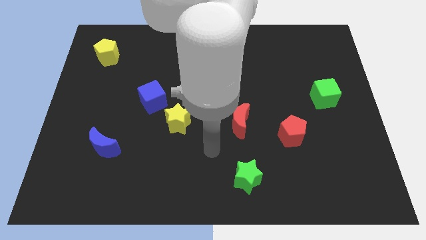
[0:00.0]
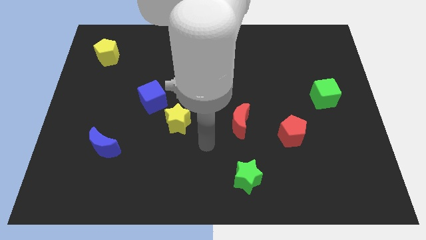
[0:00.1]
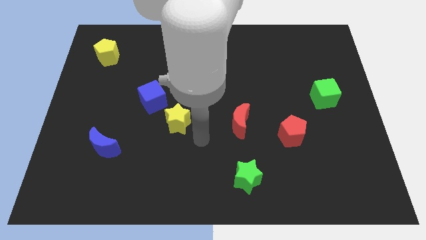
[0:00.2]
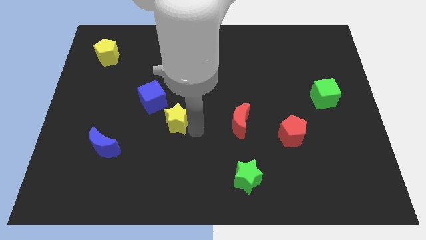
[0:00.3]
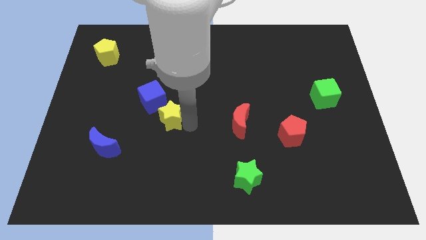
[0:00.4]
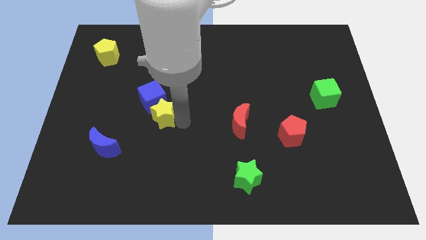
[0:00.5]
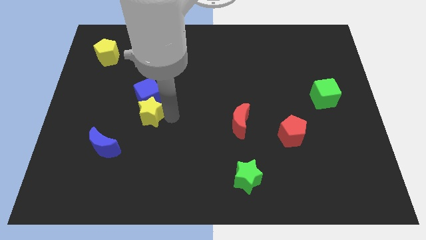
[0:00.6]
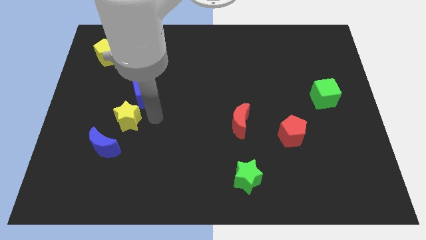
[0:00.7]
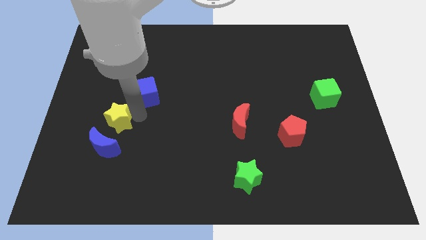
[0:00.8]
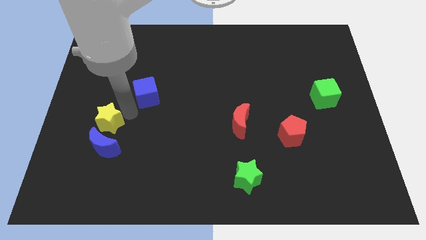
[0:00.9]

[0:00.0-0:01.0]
separate the blue cube from the yellow star

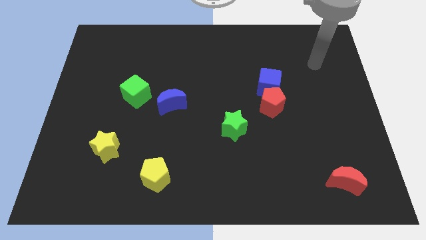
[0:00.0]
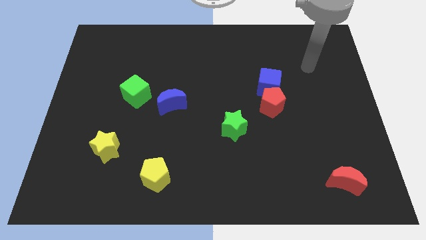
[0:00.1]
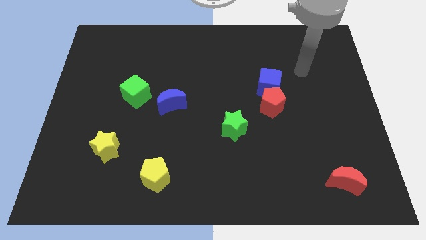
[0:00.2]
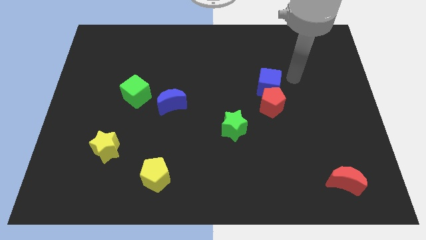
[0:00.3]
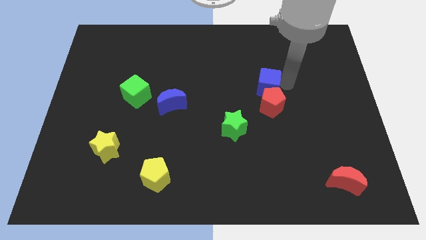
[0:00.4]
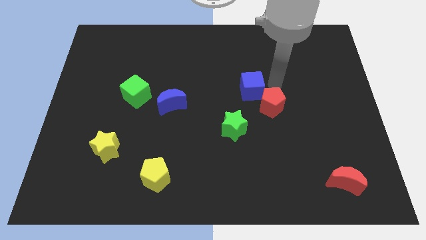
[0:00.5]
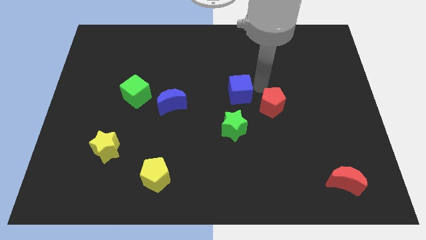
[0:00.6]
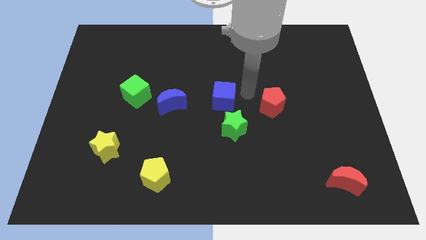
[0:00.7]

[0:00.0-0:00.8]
move the red pentagon away from the blue cube

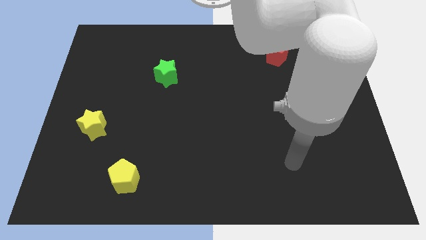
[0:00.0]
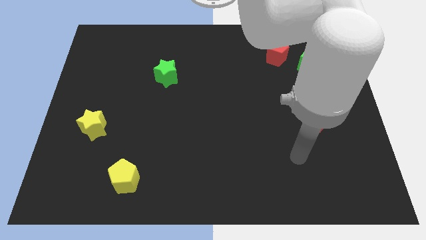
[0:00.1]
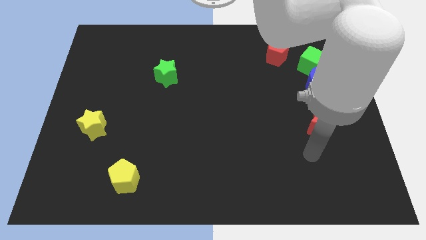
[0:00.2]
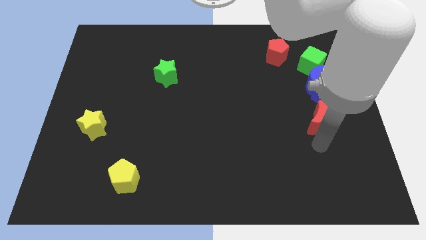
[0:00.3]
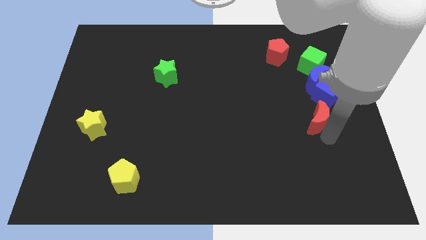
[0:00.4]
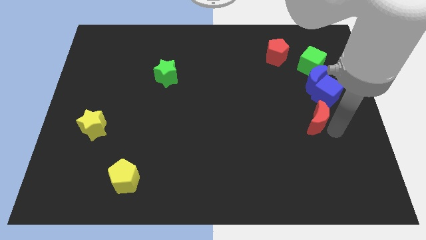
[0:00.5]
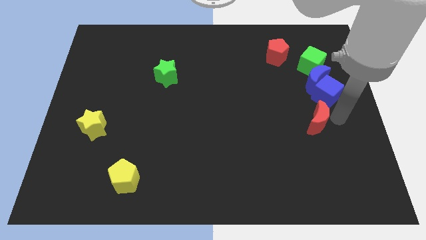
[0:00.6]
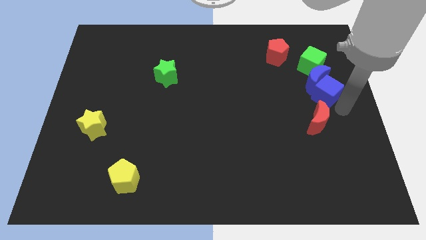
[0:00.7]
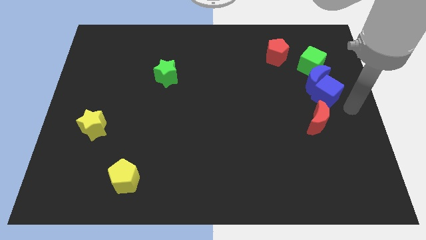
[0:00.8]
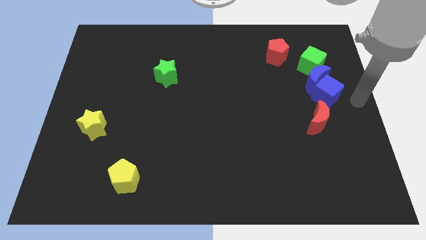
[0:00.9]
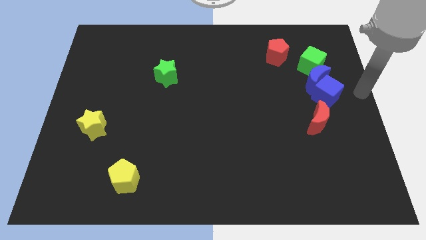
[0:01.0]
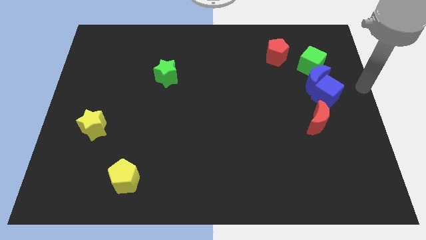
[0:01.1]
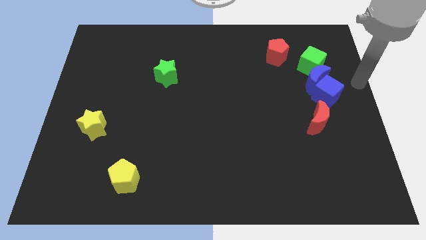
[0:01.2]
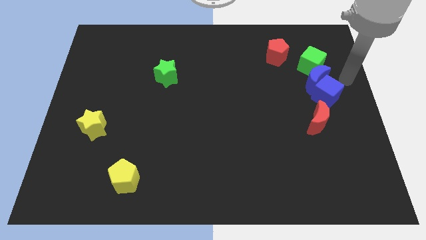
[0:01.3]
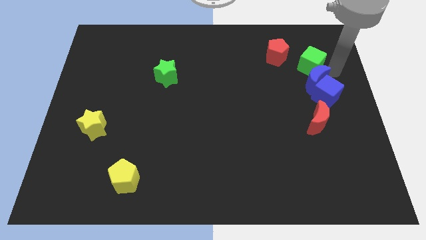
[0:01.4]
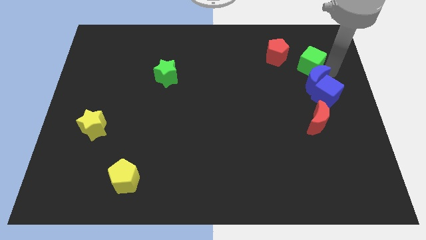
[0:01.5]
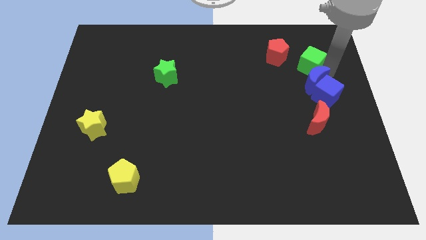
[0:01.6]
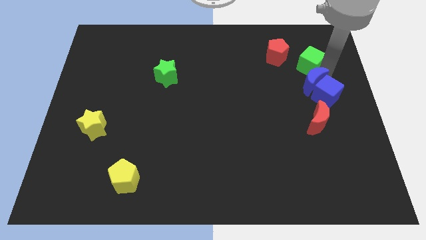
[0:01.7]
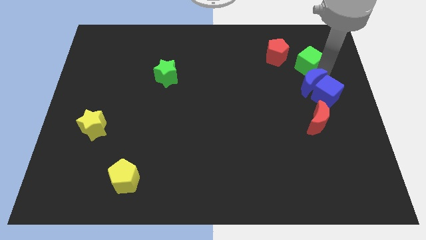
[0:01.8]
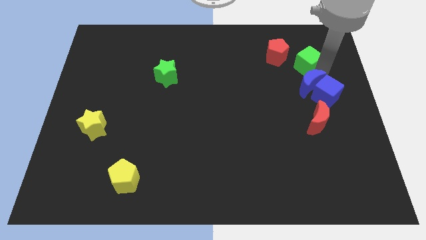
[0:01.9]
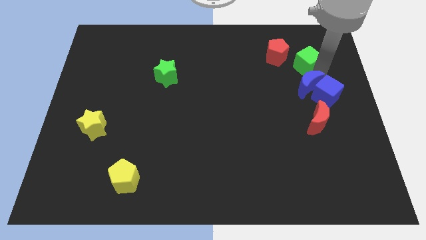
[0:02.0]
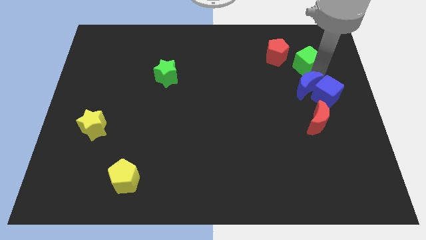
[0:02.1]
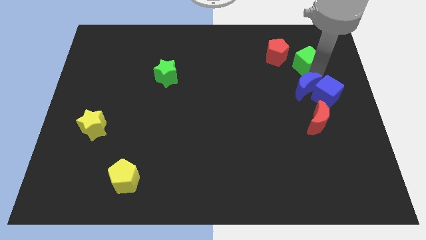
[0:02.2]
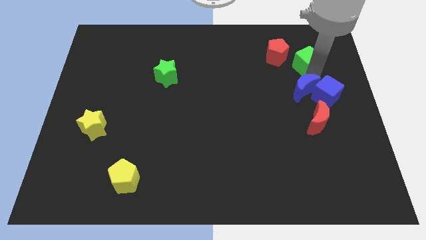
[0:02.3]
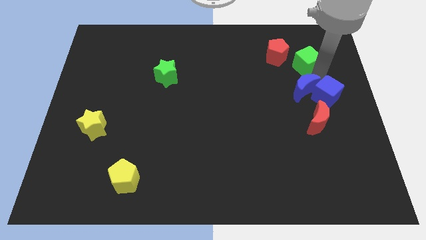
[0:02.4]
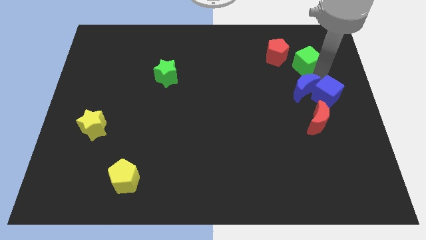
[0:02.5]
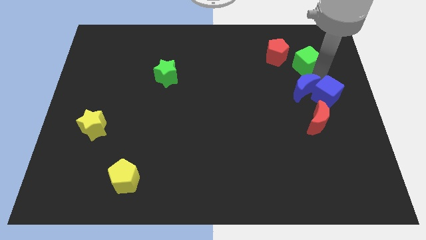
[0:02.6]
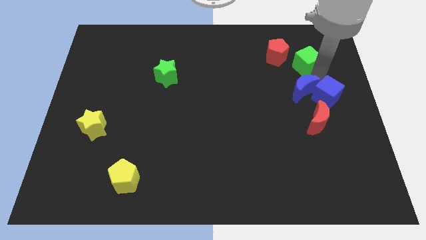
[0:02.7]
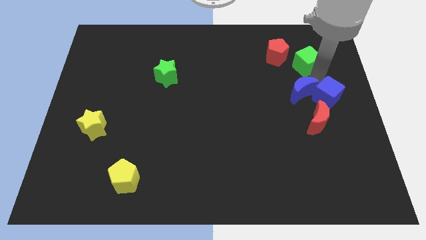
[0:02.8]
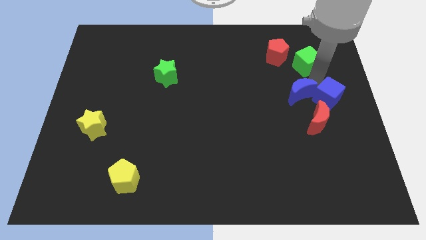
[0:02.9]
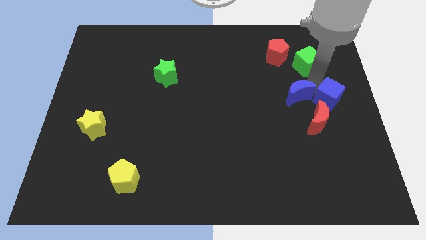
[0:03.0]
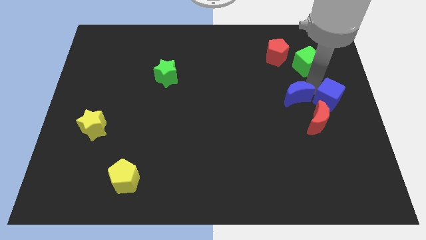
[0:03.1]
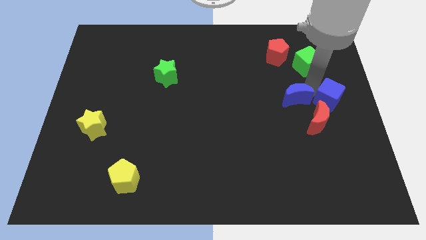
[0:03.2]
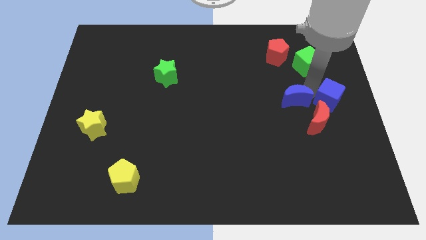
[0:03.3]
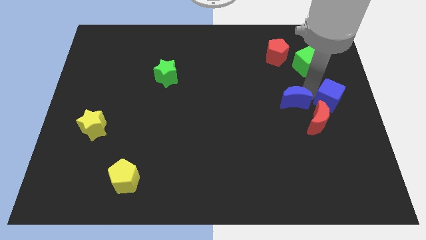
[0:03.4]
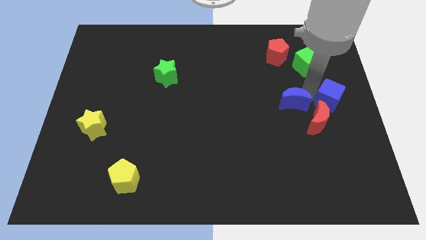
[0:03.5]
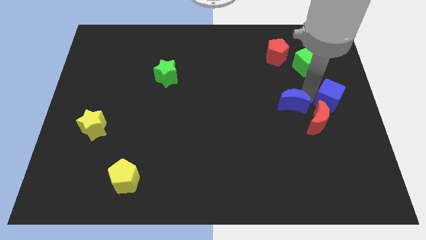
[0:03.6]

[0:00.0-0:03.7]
move the blue moon away from the blue cube and green cube

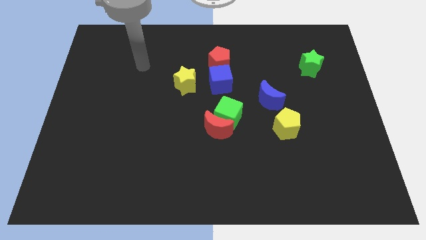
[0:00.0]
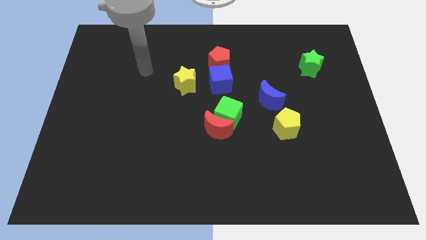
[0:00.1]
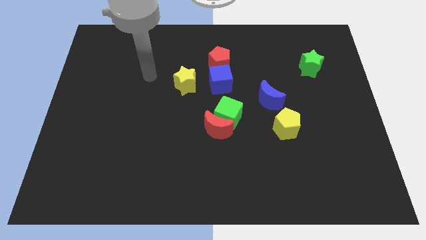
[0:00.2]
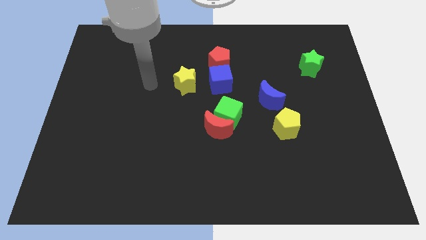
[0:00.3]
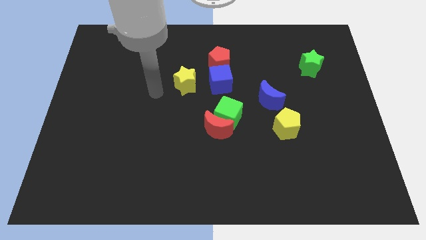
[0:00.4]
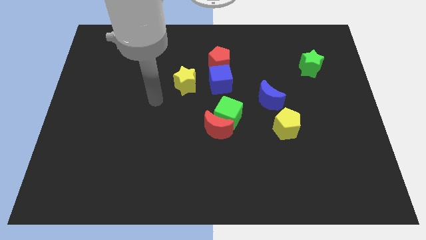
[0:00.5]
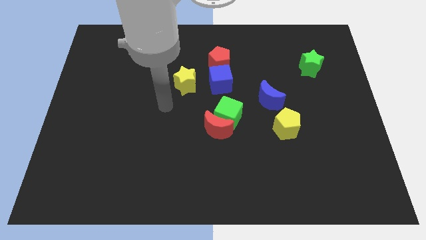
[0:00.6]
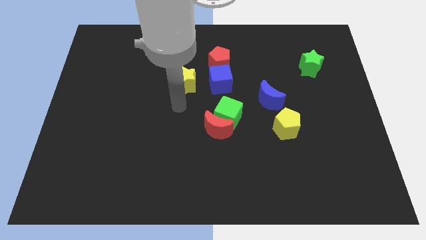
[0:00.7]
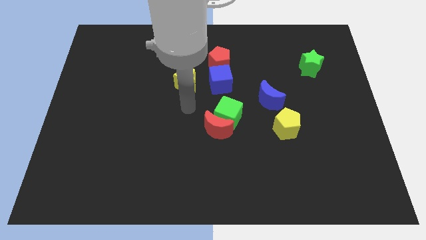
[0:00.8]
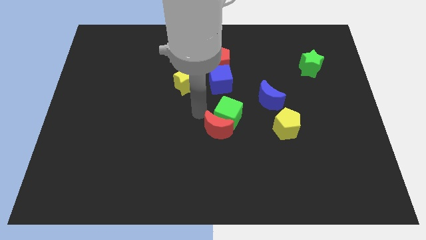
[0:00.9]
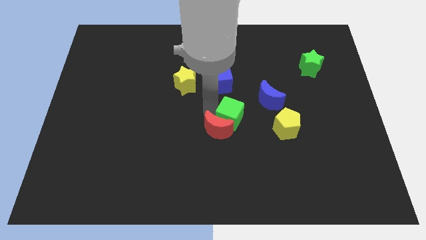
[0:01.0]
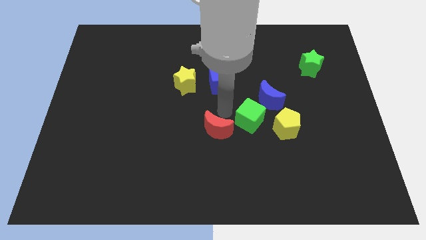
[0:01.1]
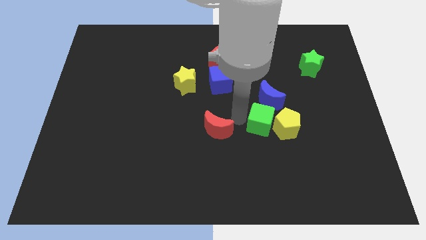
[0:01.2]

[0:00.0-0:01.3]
pull the red moon apart from the green cube

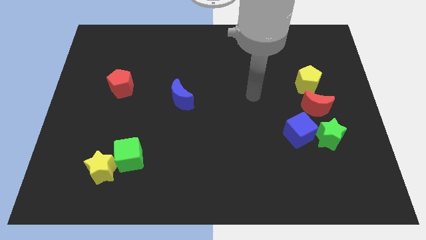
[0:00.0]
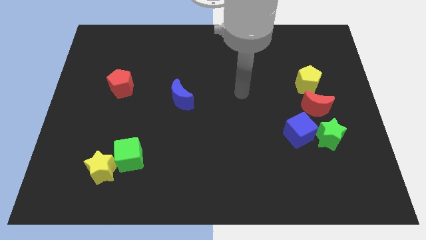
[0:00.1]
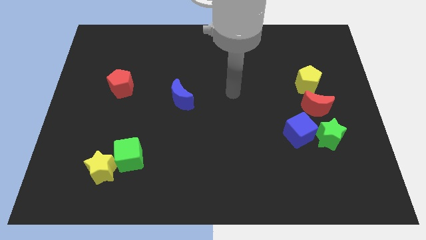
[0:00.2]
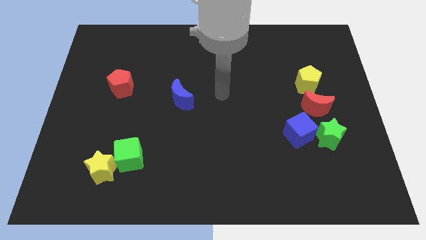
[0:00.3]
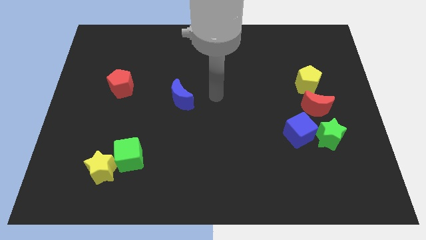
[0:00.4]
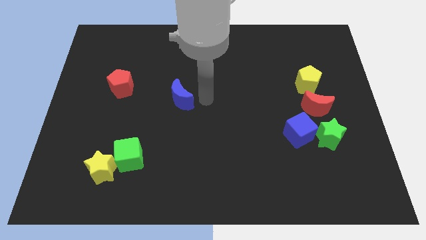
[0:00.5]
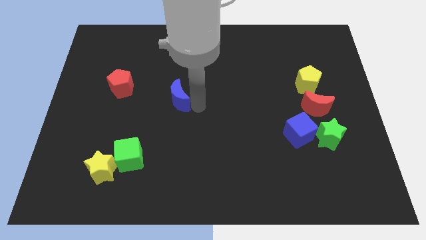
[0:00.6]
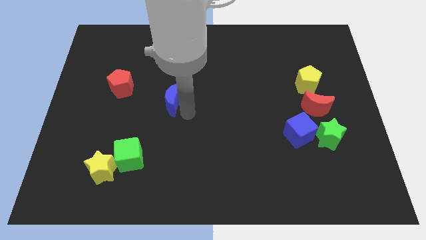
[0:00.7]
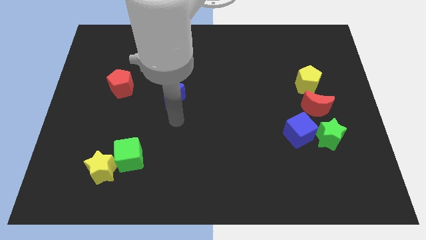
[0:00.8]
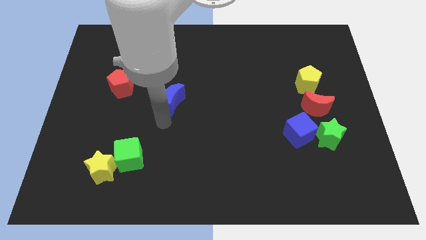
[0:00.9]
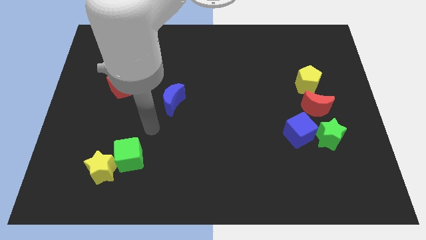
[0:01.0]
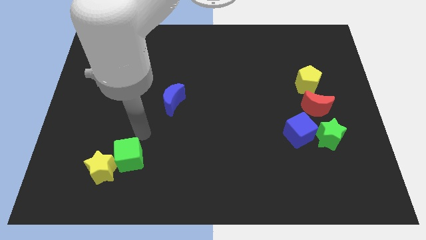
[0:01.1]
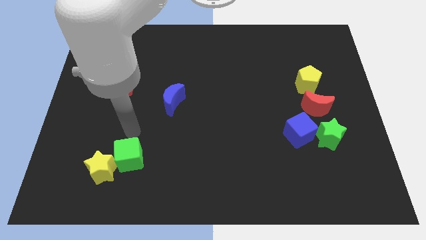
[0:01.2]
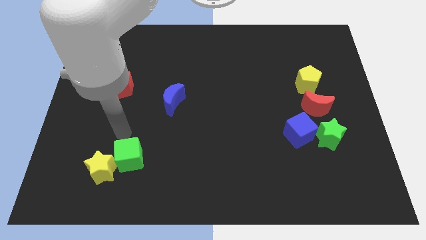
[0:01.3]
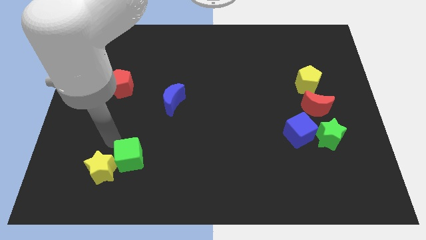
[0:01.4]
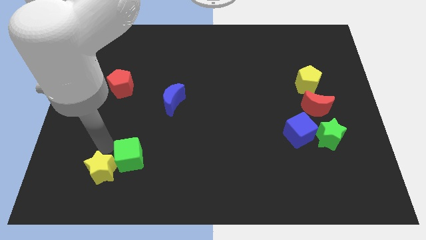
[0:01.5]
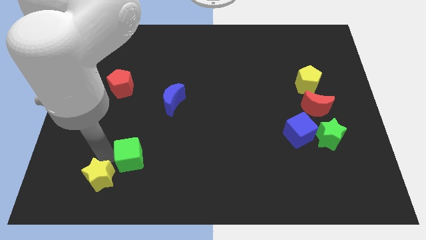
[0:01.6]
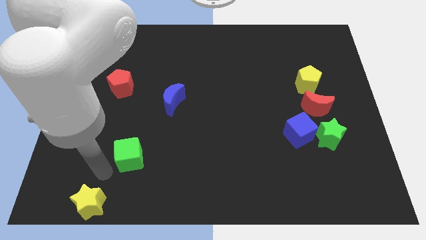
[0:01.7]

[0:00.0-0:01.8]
separate the green cube from the yellow star

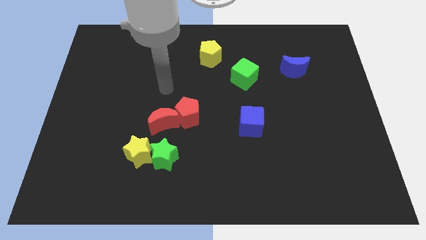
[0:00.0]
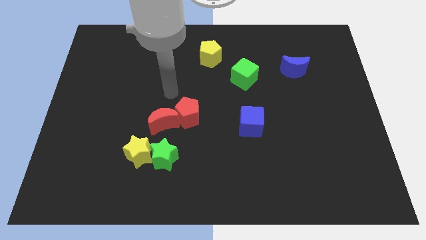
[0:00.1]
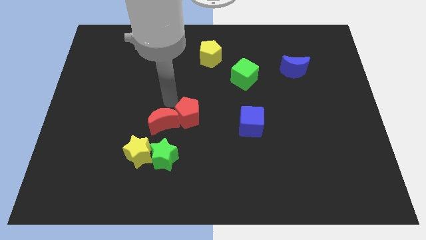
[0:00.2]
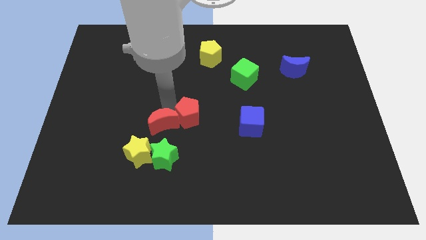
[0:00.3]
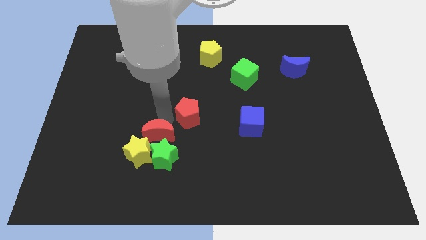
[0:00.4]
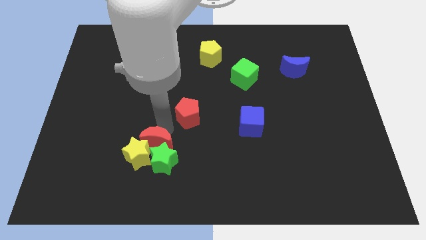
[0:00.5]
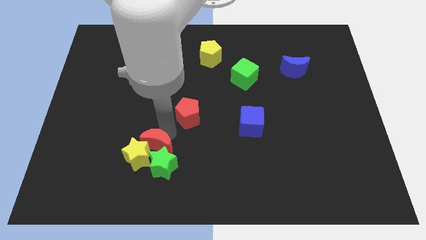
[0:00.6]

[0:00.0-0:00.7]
pull the red pentagon apart from the red moon
